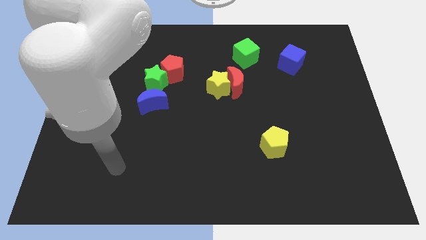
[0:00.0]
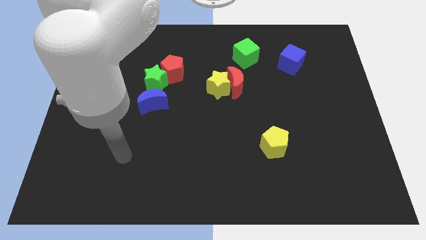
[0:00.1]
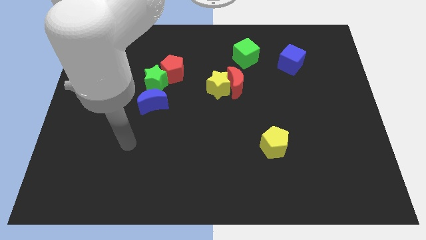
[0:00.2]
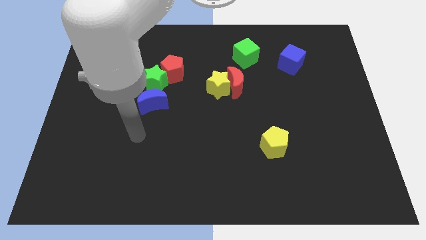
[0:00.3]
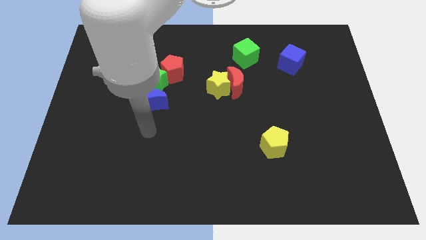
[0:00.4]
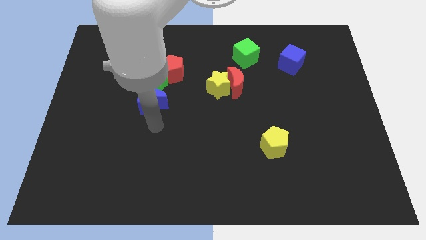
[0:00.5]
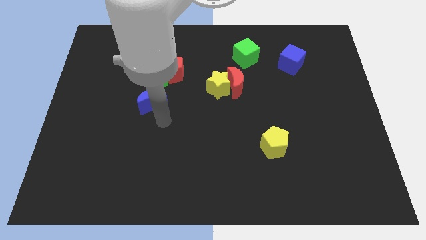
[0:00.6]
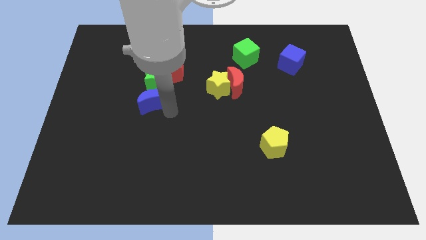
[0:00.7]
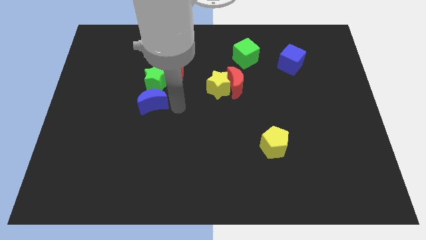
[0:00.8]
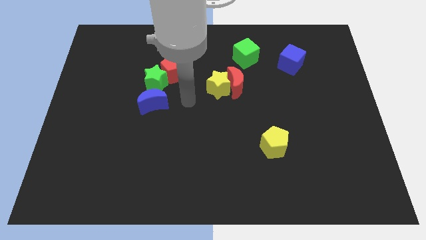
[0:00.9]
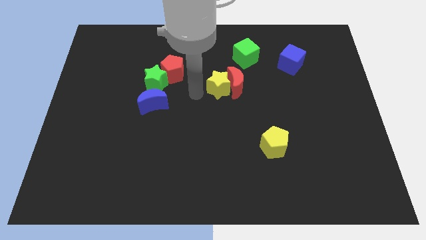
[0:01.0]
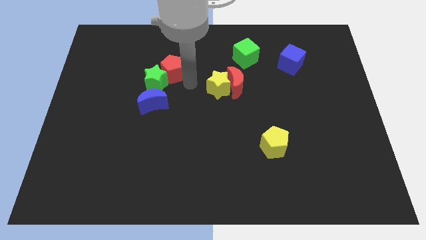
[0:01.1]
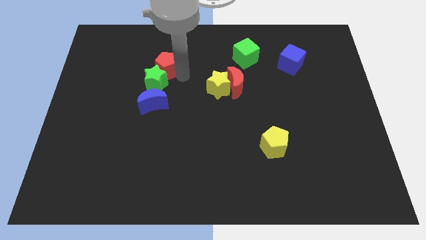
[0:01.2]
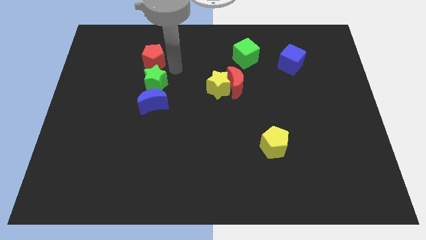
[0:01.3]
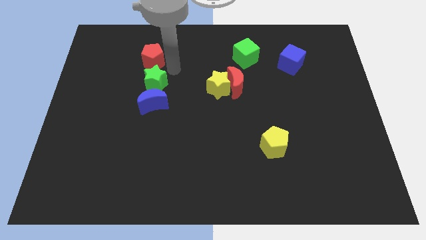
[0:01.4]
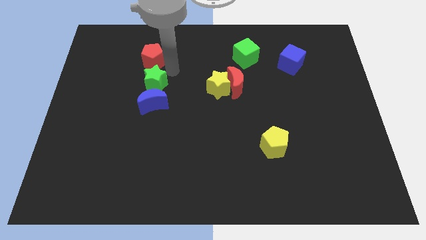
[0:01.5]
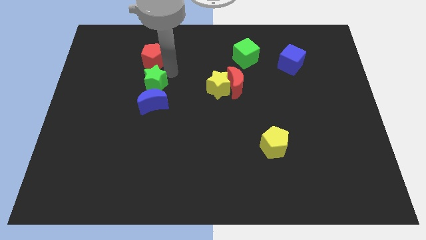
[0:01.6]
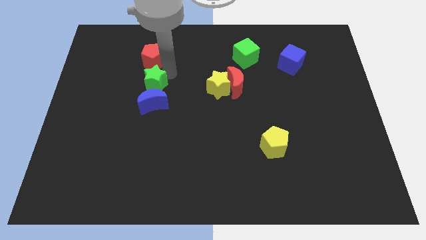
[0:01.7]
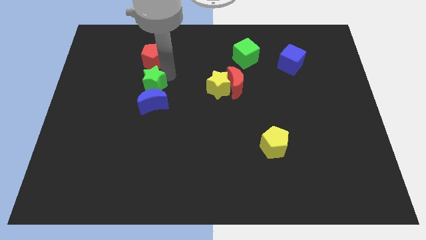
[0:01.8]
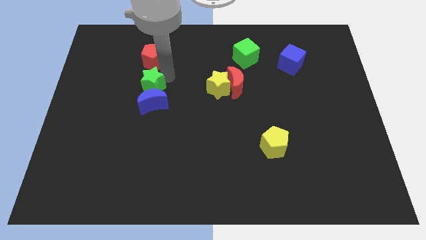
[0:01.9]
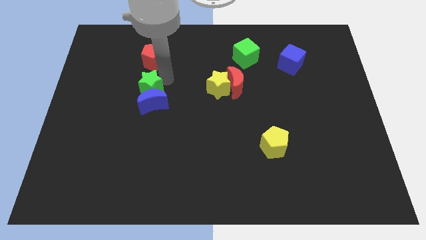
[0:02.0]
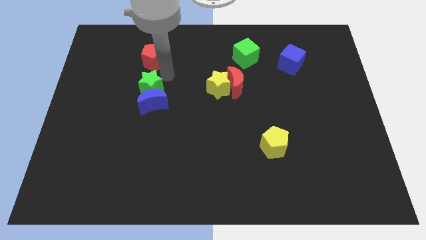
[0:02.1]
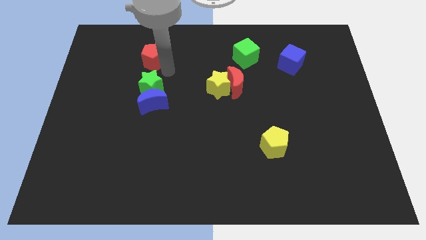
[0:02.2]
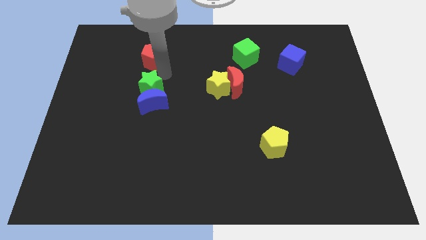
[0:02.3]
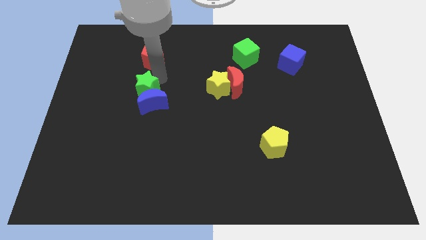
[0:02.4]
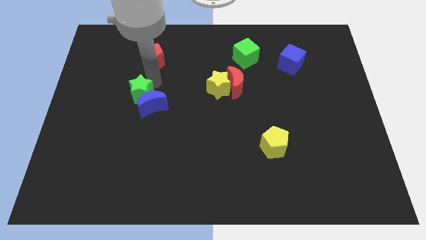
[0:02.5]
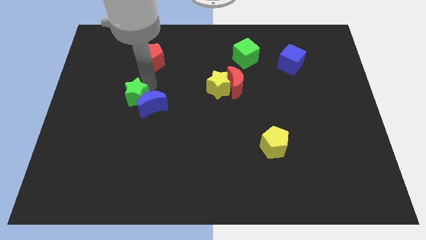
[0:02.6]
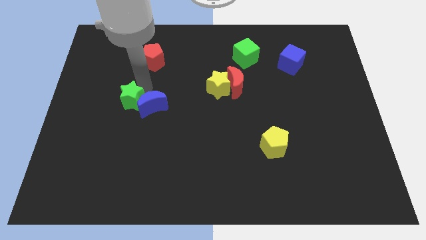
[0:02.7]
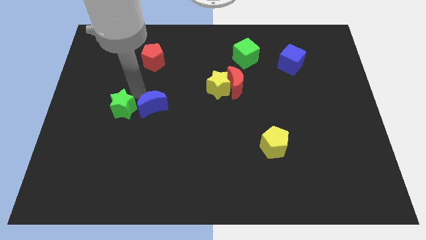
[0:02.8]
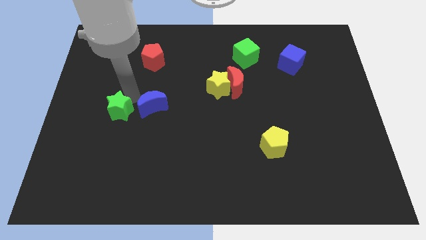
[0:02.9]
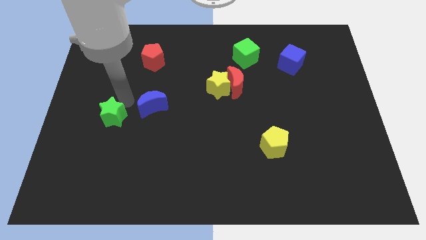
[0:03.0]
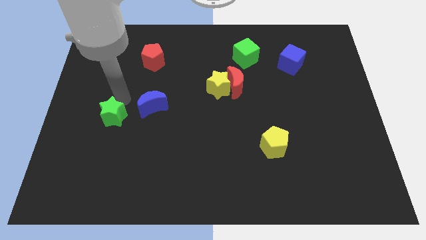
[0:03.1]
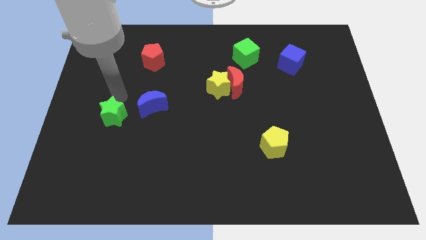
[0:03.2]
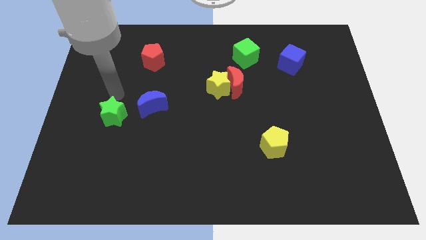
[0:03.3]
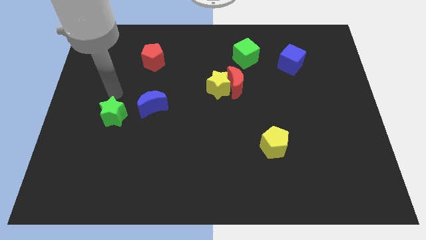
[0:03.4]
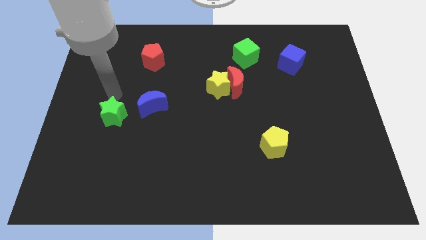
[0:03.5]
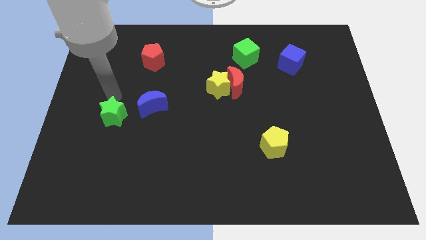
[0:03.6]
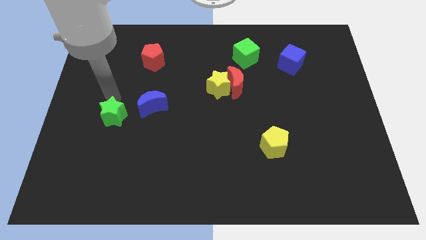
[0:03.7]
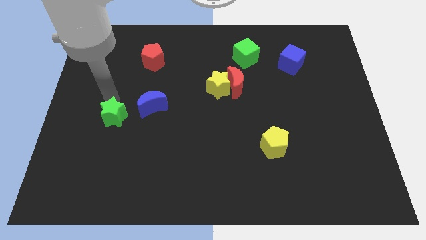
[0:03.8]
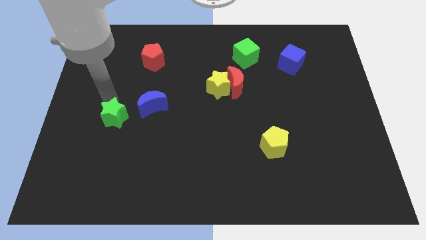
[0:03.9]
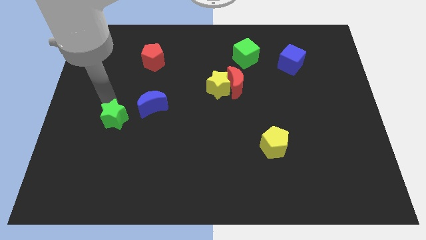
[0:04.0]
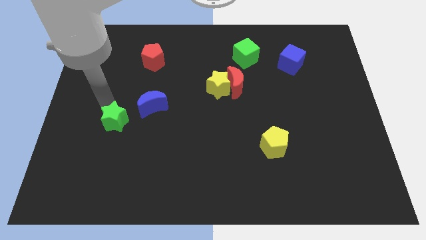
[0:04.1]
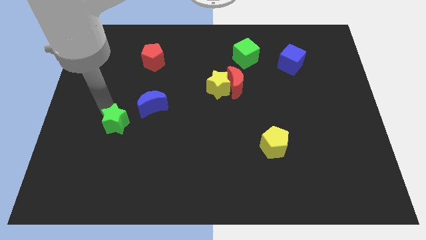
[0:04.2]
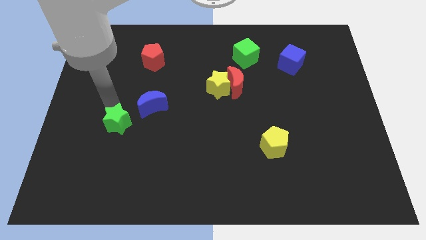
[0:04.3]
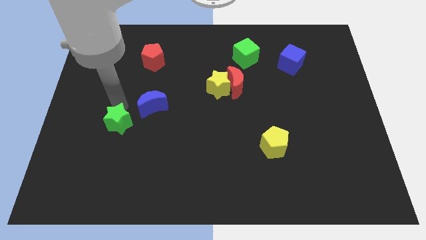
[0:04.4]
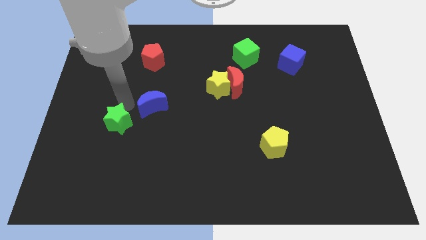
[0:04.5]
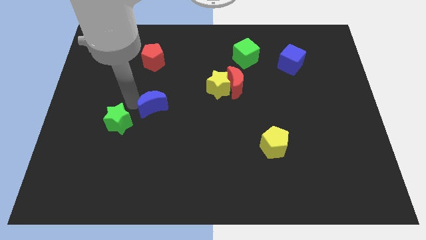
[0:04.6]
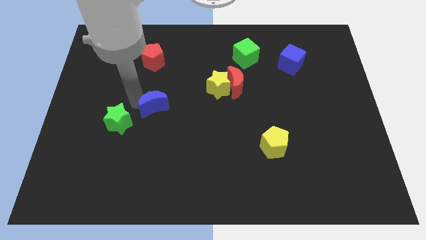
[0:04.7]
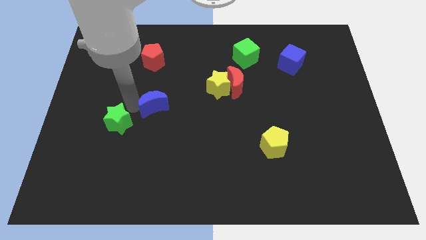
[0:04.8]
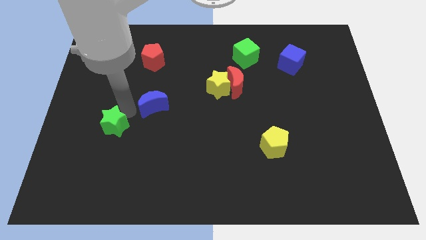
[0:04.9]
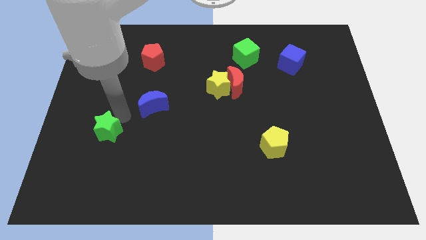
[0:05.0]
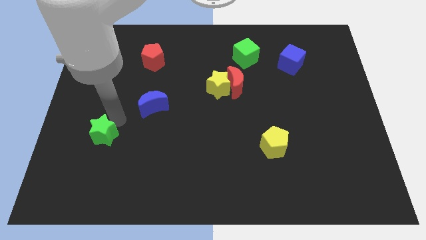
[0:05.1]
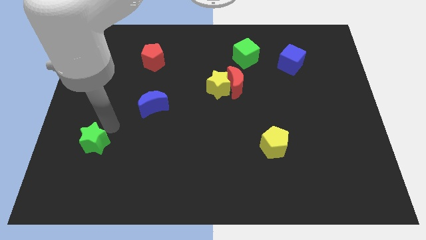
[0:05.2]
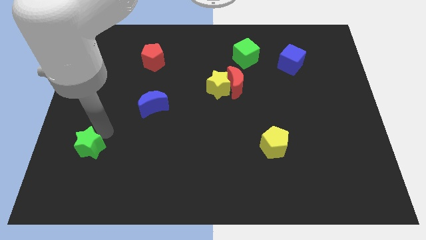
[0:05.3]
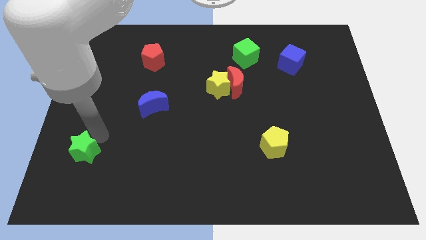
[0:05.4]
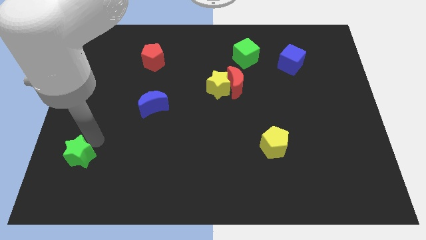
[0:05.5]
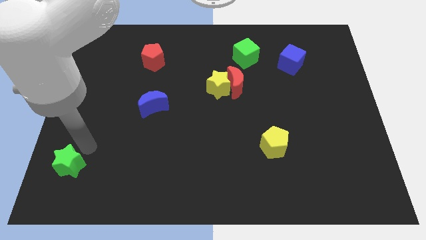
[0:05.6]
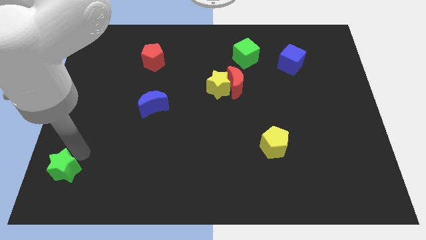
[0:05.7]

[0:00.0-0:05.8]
move the green star to the lower left corner

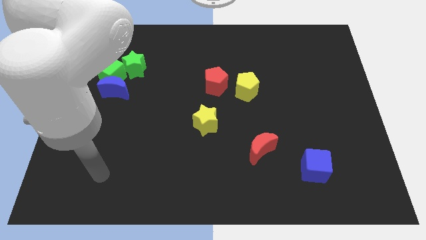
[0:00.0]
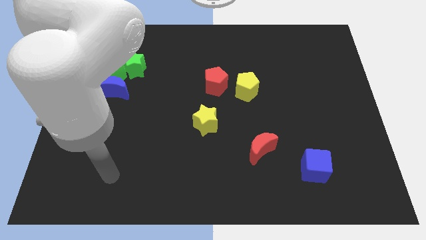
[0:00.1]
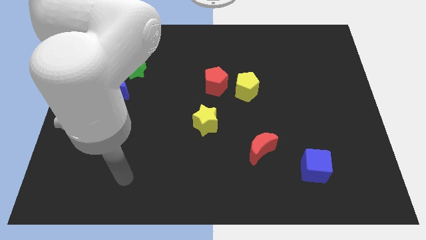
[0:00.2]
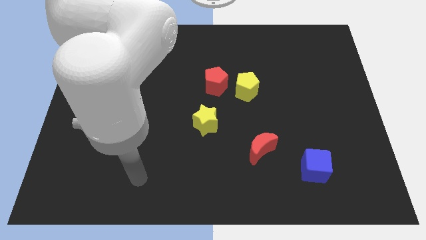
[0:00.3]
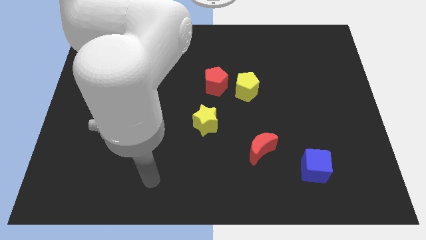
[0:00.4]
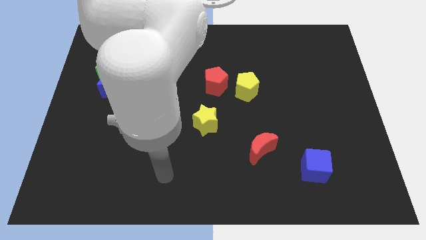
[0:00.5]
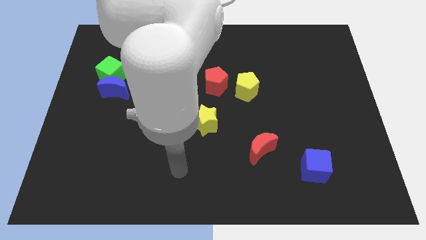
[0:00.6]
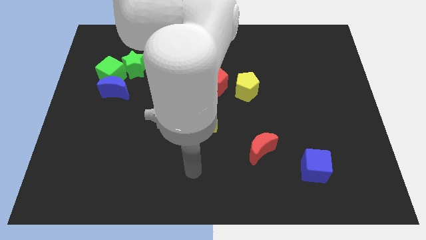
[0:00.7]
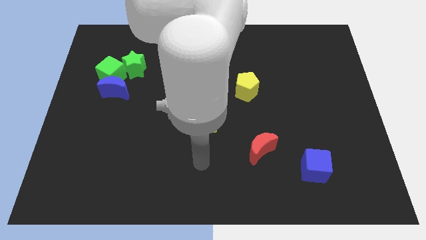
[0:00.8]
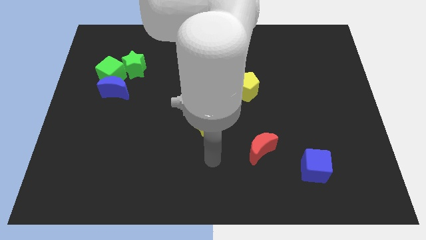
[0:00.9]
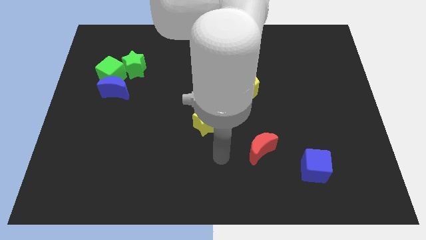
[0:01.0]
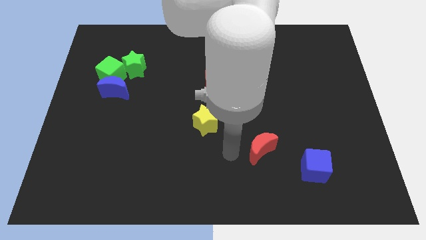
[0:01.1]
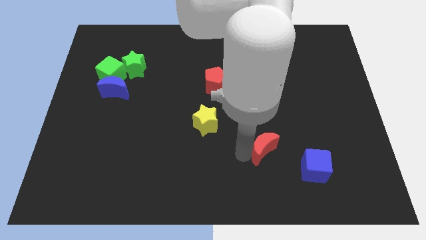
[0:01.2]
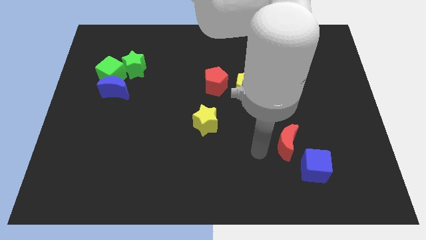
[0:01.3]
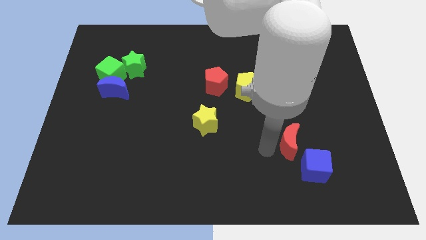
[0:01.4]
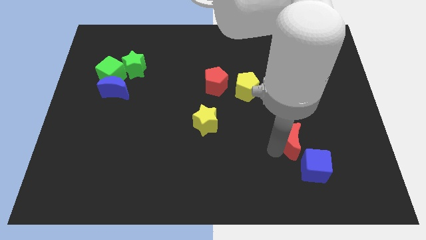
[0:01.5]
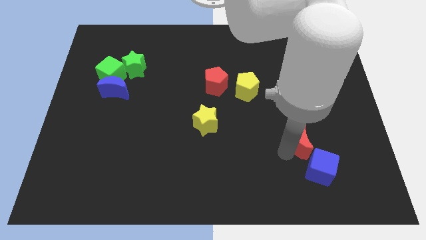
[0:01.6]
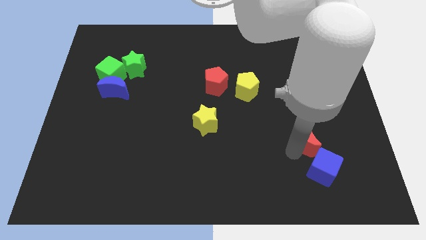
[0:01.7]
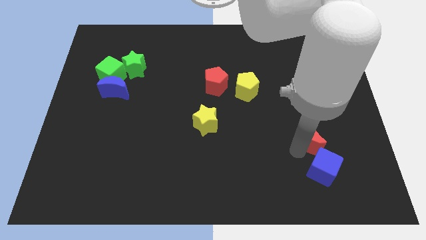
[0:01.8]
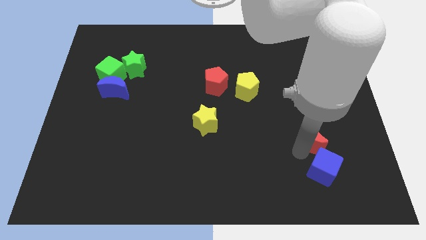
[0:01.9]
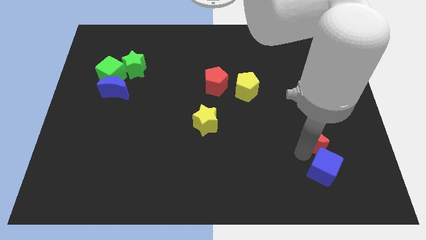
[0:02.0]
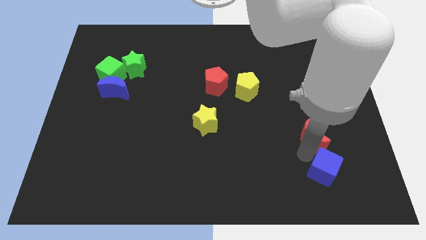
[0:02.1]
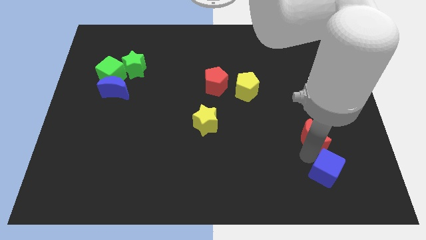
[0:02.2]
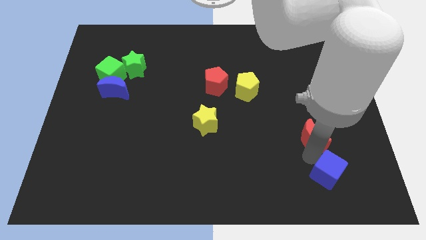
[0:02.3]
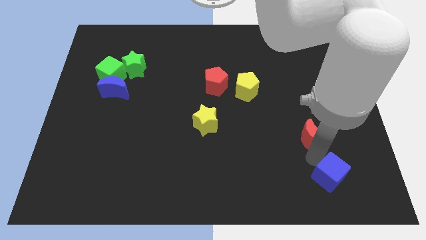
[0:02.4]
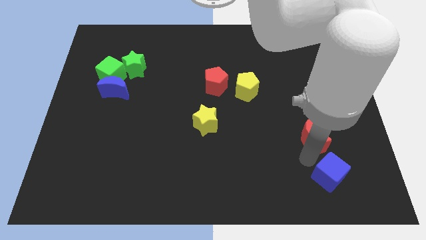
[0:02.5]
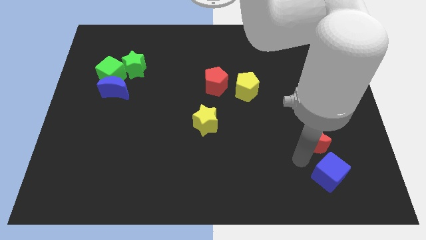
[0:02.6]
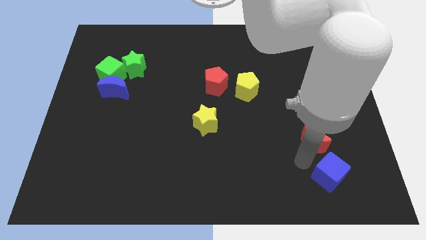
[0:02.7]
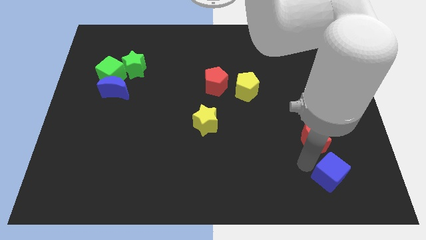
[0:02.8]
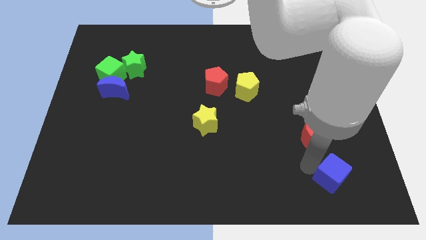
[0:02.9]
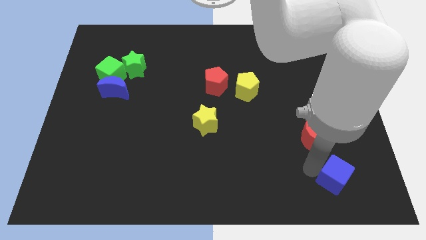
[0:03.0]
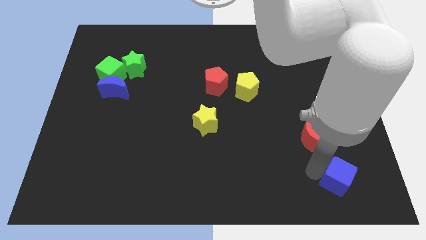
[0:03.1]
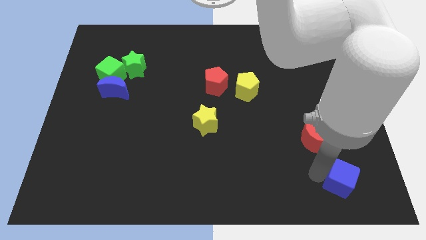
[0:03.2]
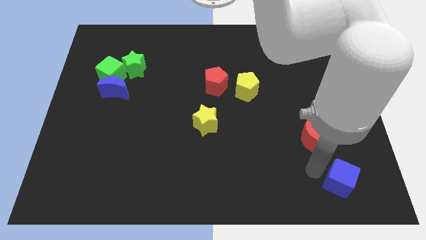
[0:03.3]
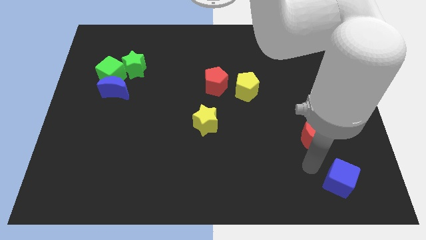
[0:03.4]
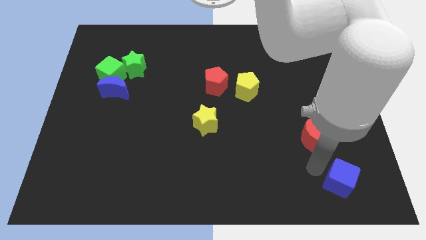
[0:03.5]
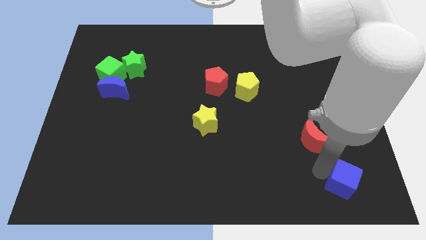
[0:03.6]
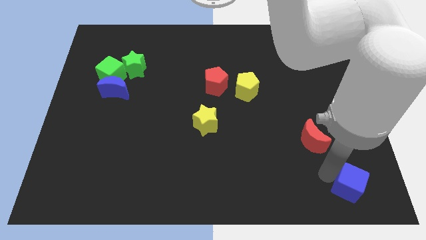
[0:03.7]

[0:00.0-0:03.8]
slide the blue cube to the bottom right of the board
